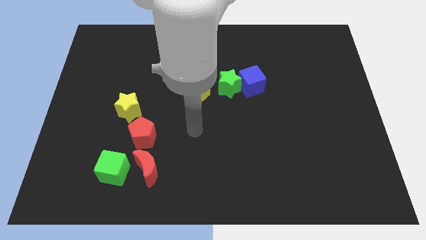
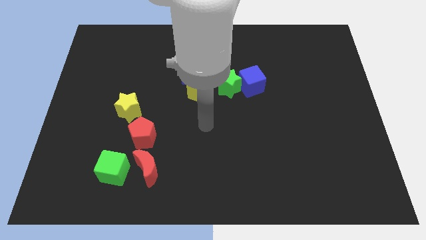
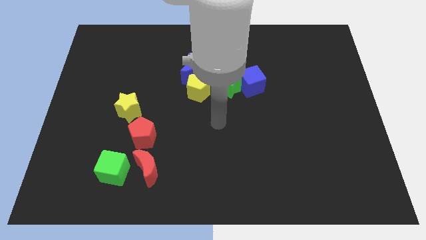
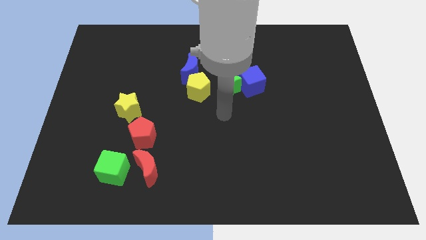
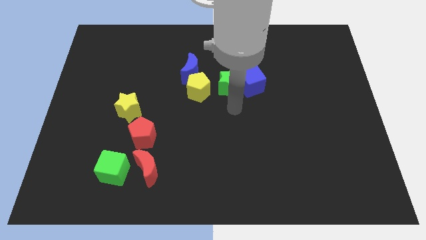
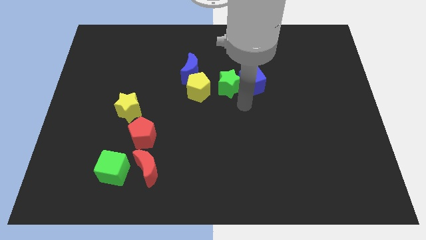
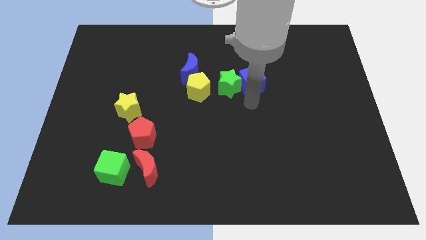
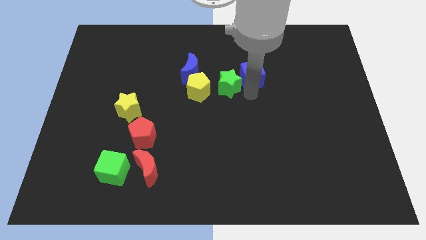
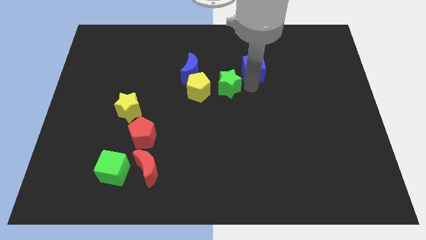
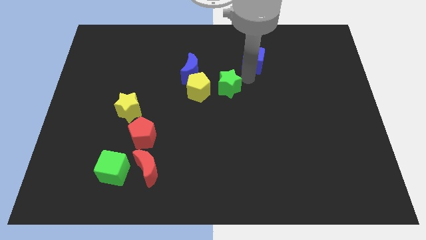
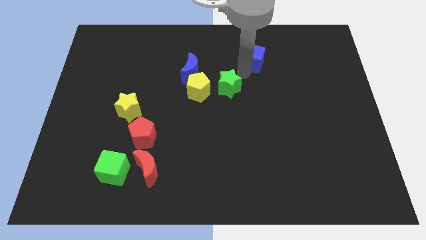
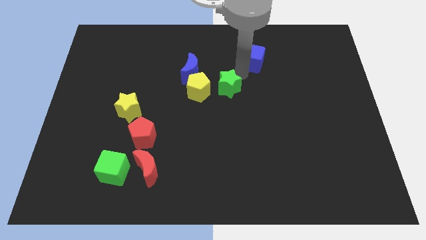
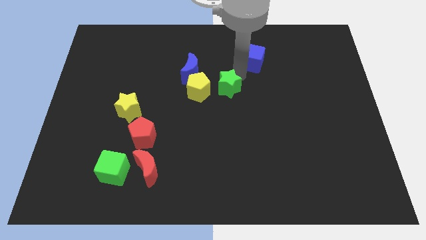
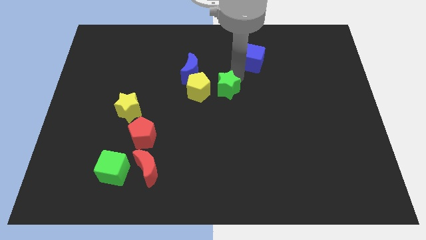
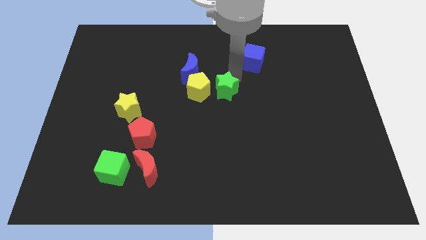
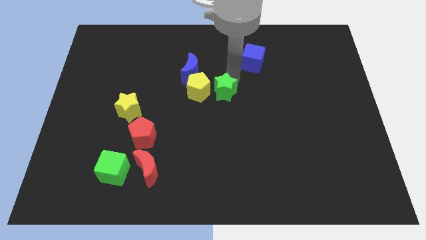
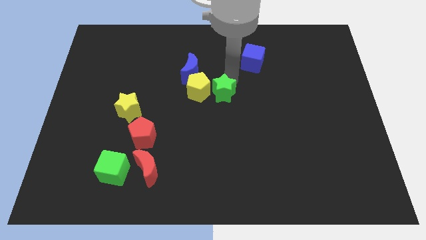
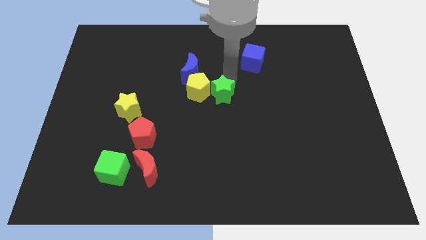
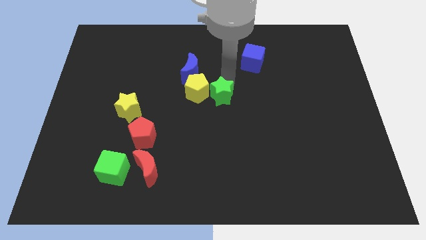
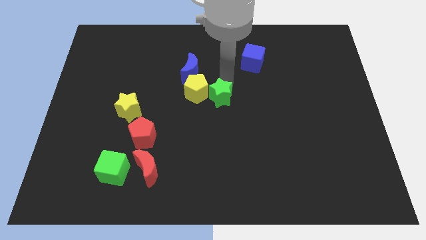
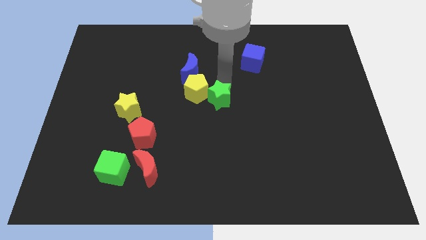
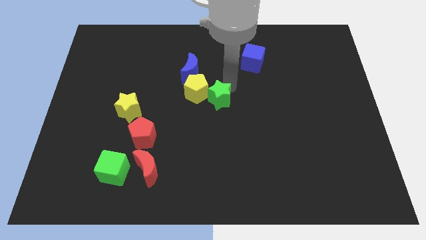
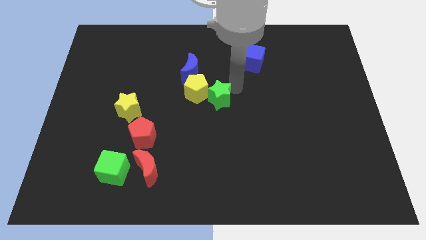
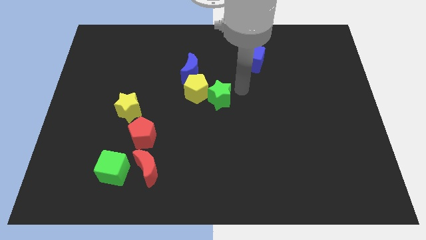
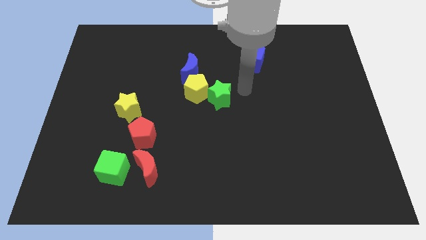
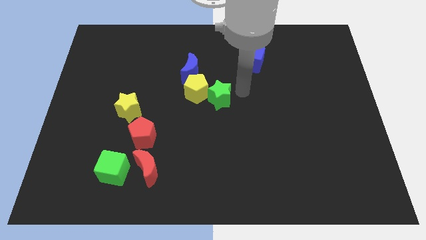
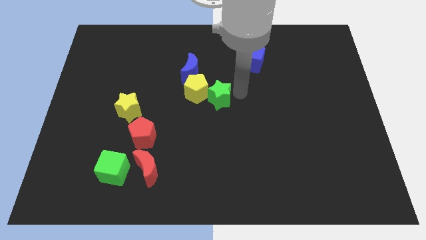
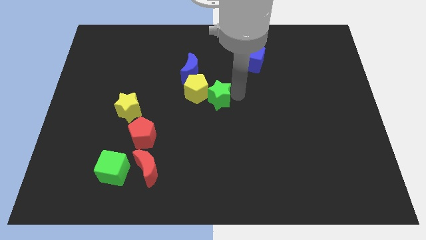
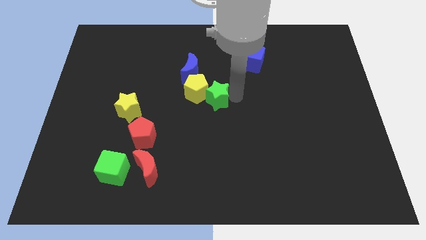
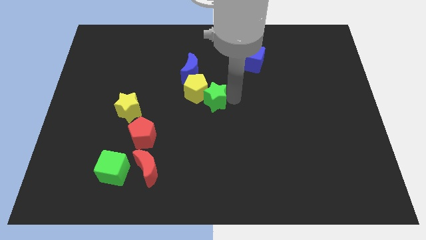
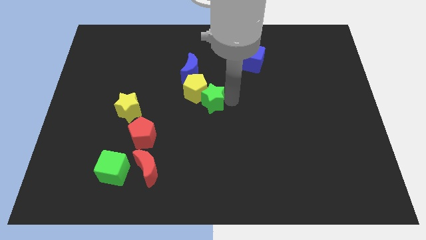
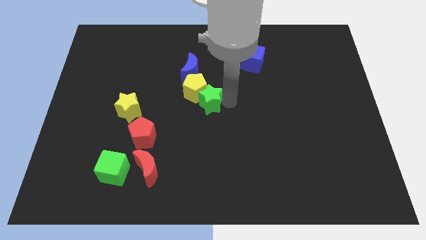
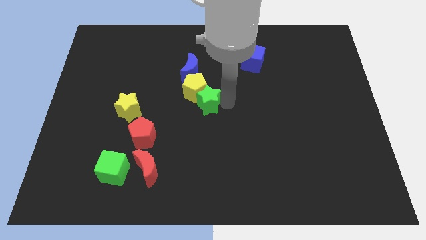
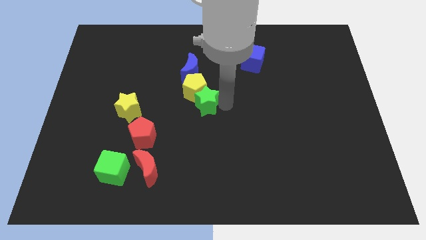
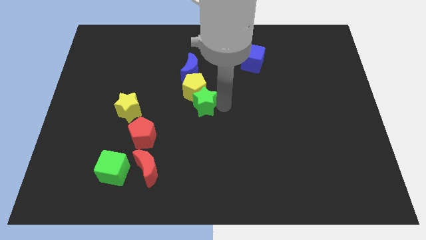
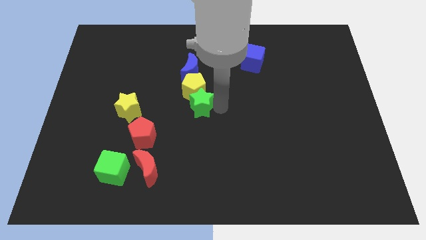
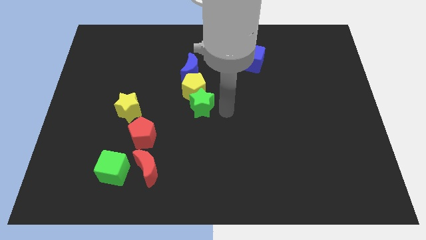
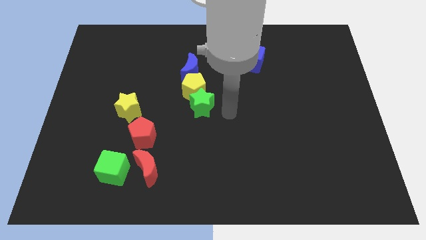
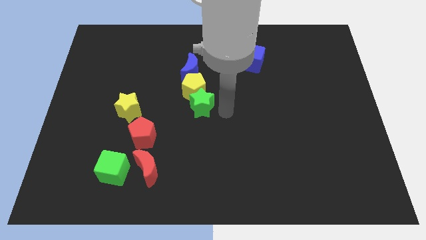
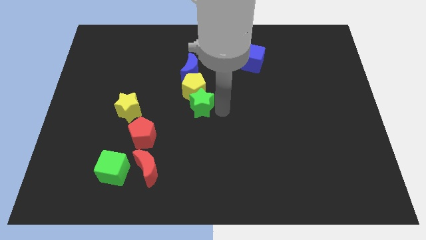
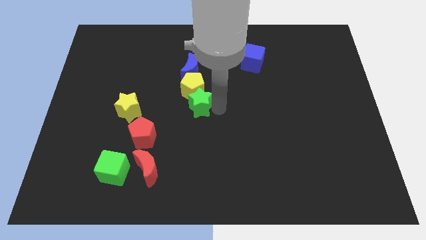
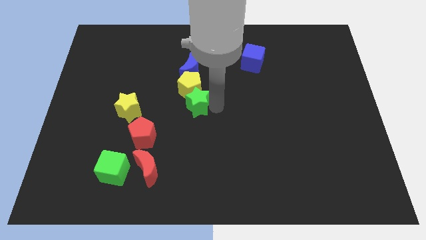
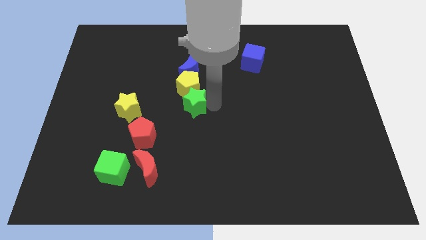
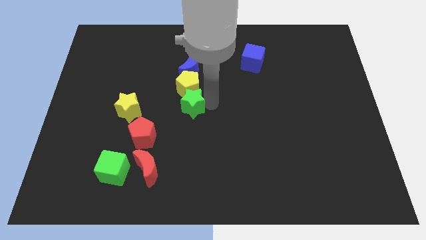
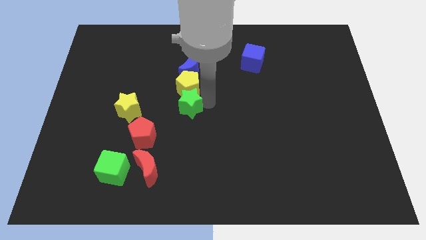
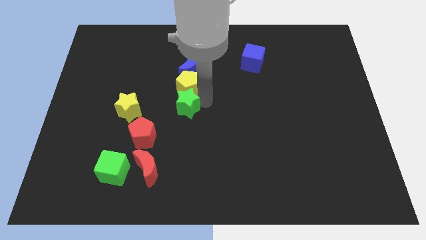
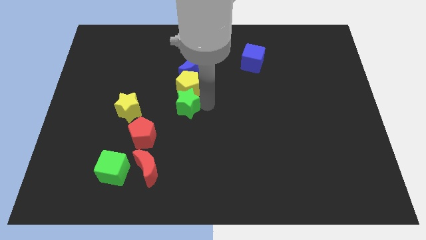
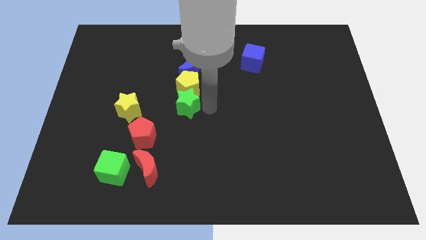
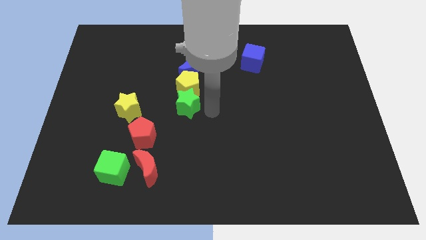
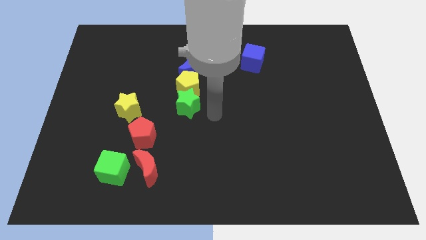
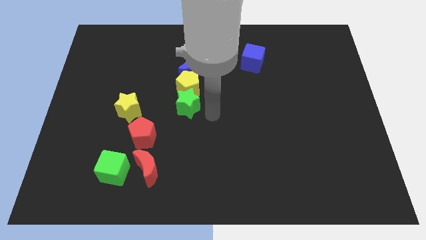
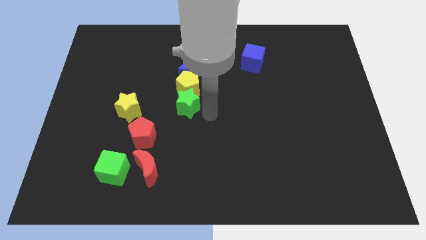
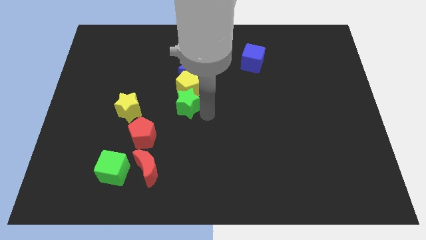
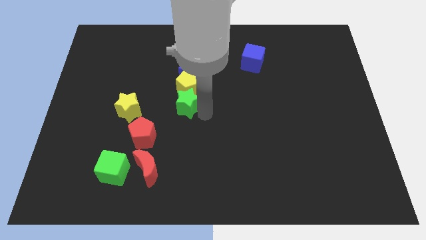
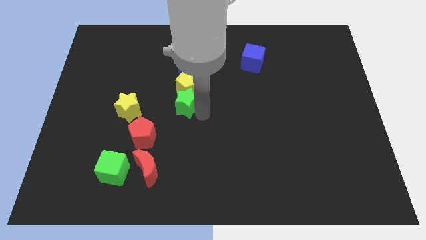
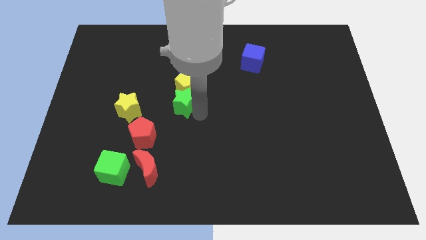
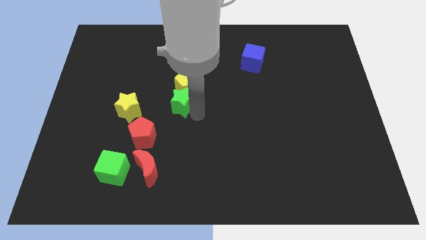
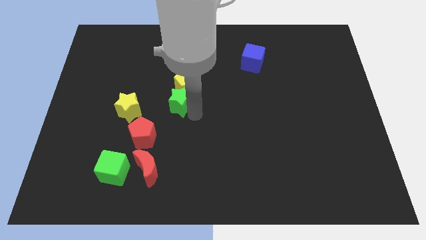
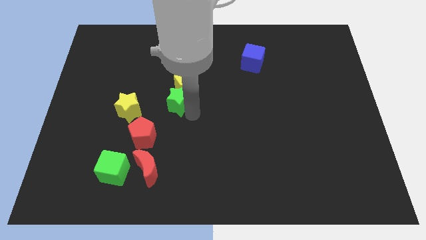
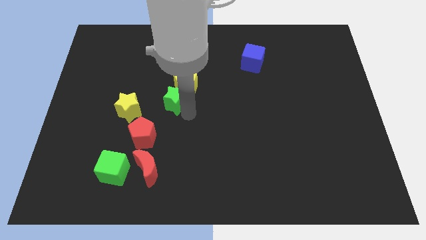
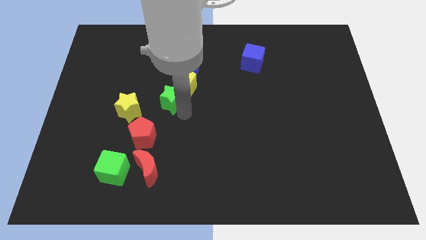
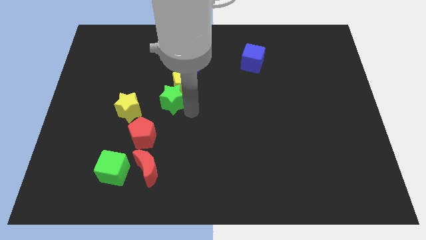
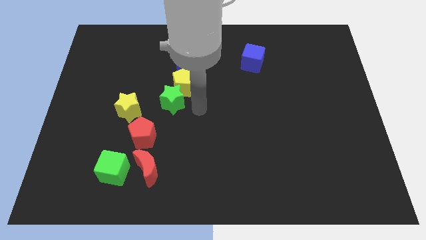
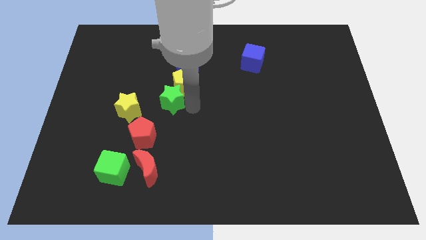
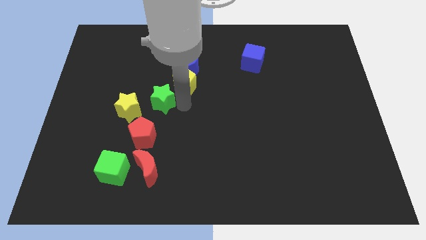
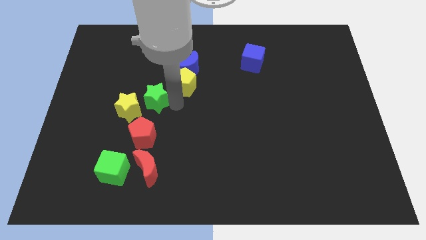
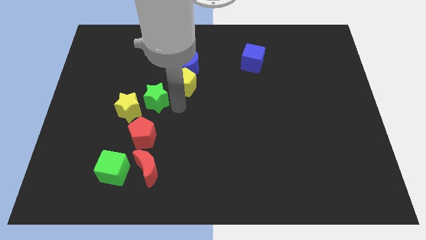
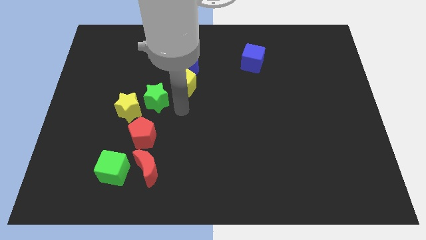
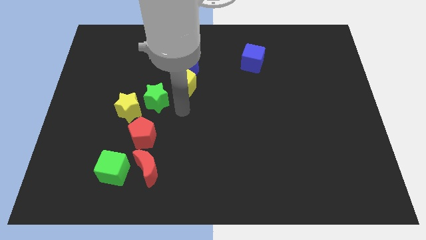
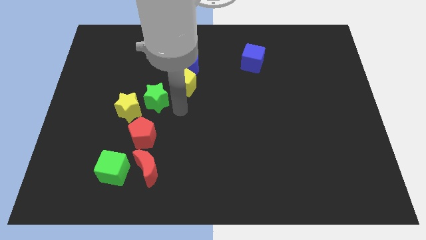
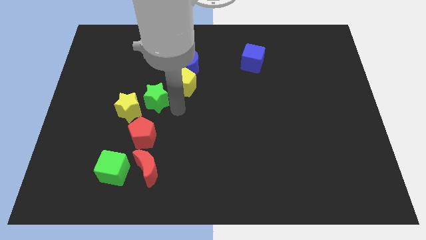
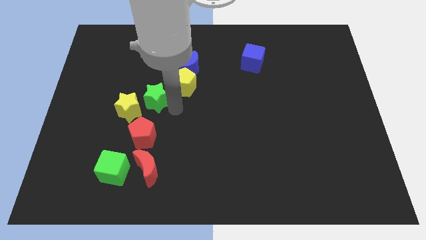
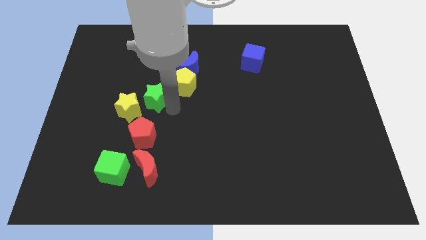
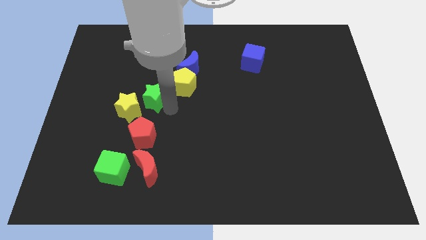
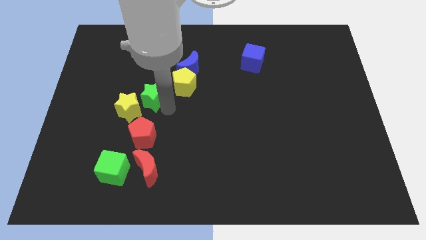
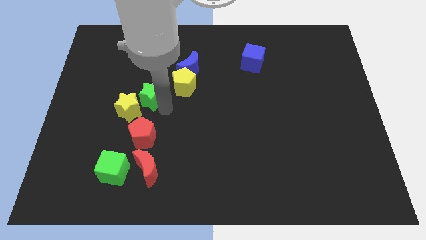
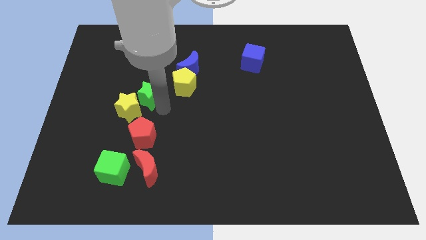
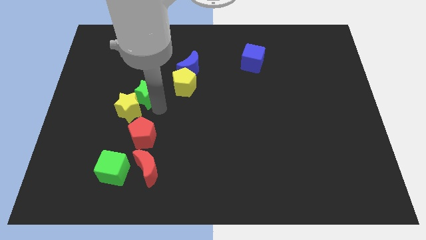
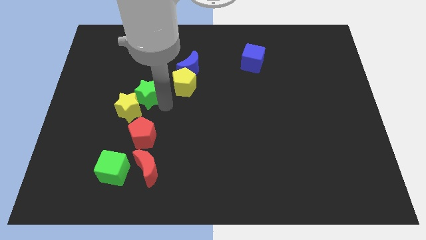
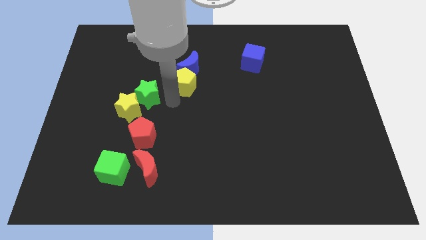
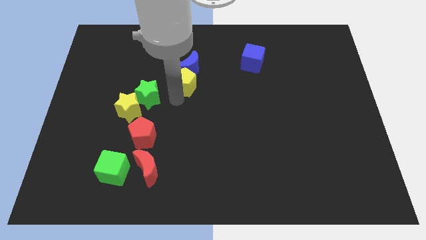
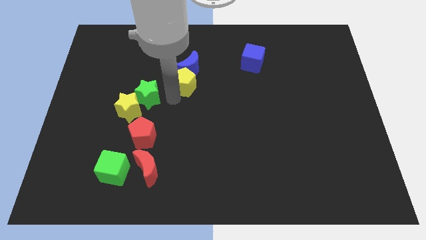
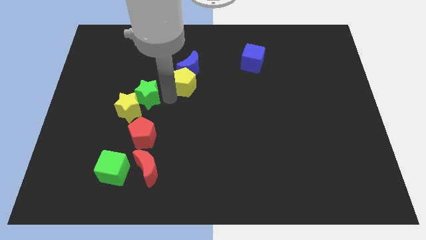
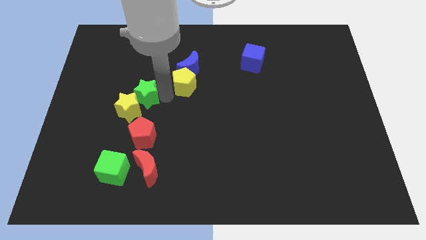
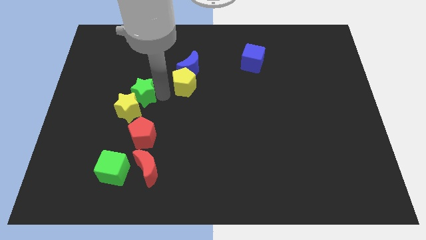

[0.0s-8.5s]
slide the green star to the left
